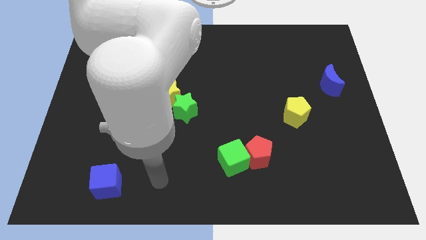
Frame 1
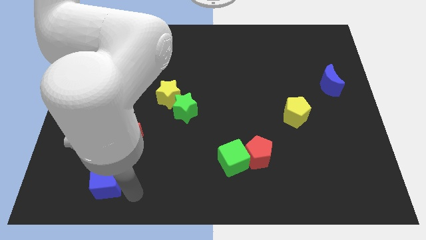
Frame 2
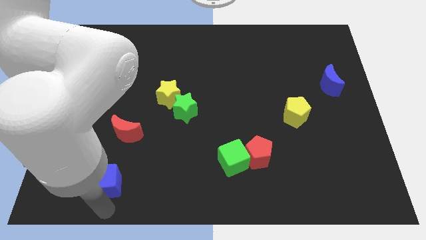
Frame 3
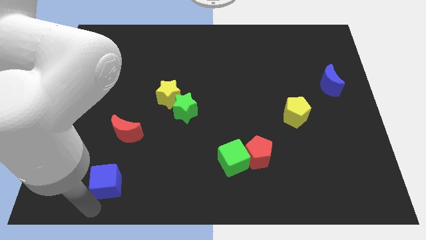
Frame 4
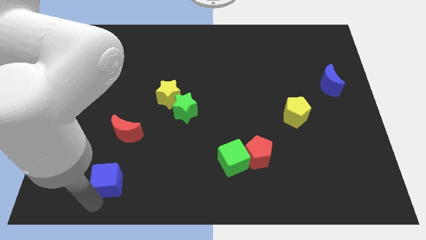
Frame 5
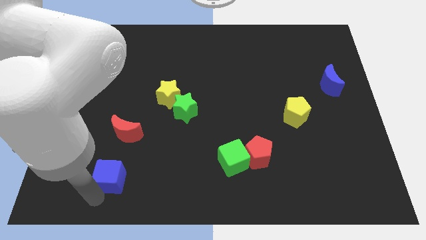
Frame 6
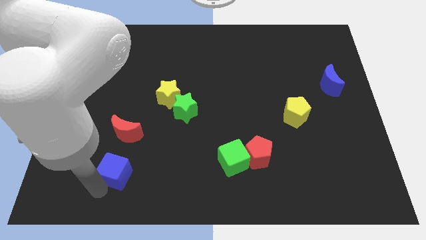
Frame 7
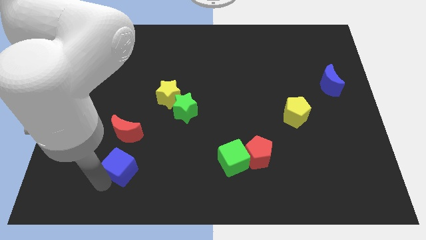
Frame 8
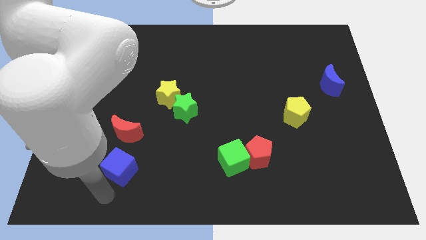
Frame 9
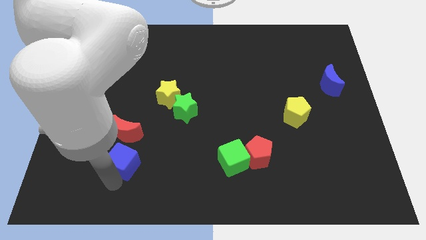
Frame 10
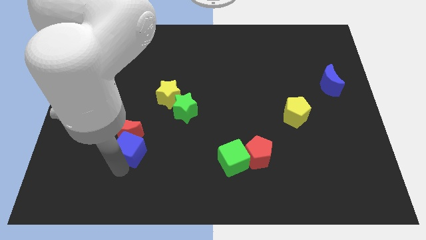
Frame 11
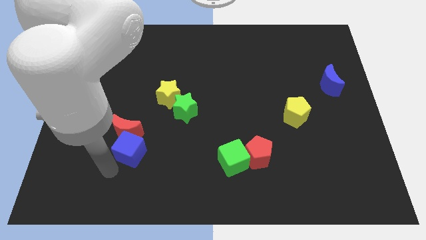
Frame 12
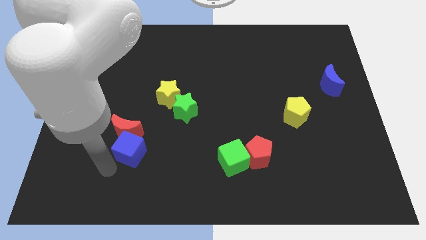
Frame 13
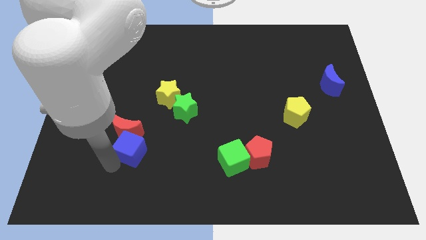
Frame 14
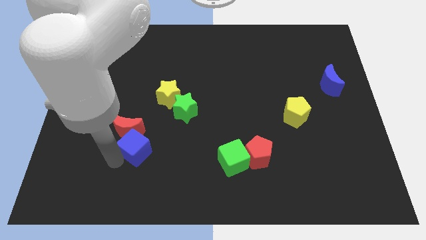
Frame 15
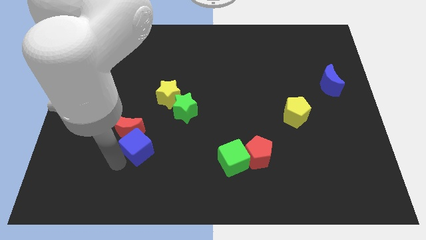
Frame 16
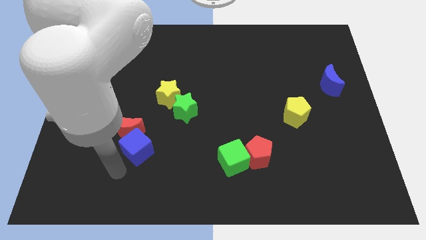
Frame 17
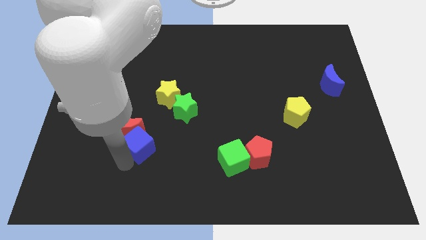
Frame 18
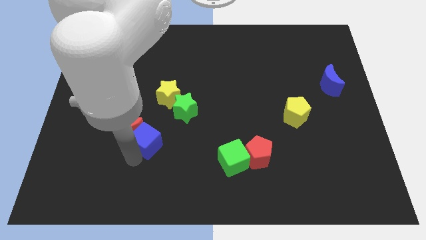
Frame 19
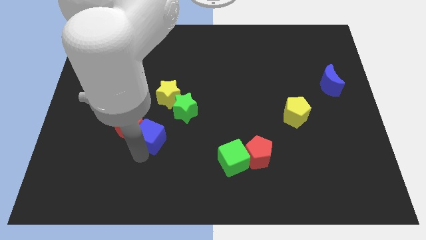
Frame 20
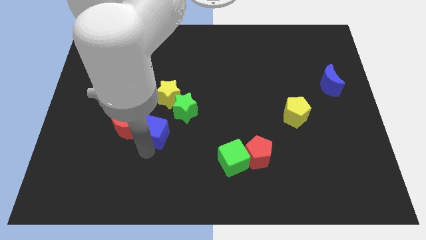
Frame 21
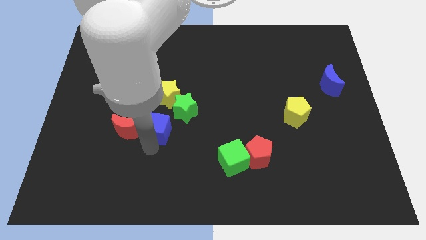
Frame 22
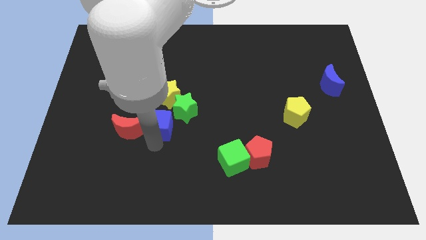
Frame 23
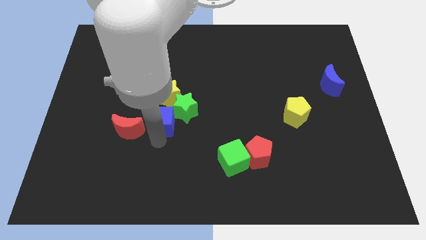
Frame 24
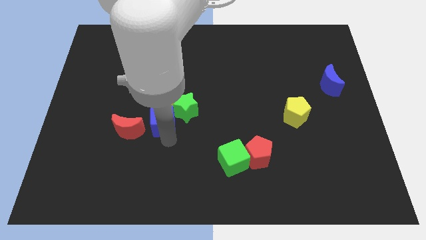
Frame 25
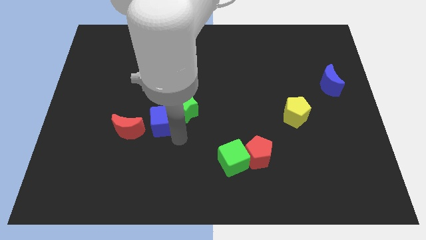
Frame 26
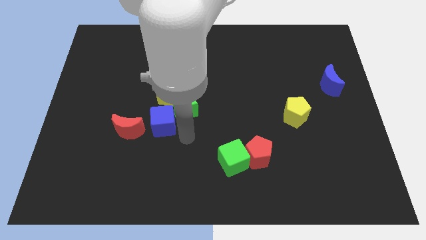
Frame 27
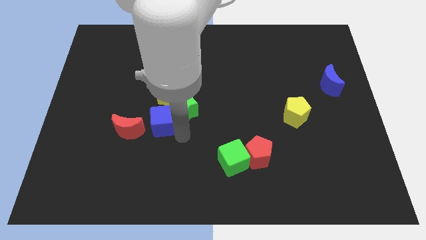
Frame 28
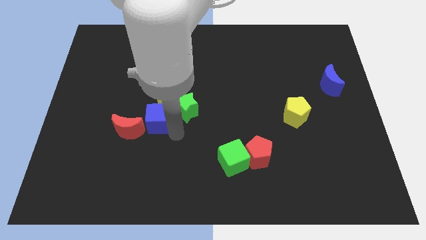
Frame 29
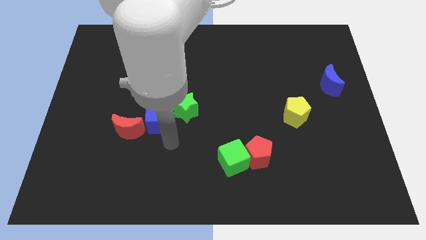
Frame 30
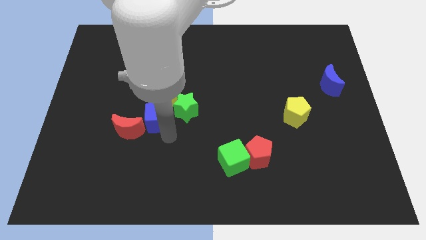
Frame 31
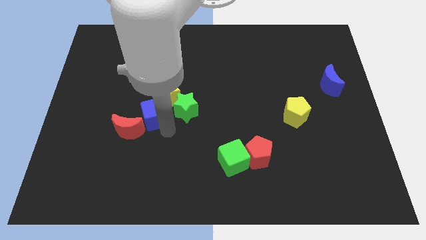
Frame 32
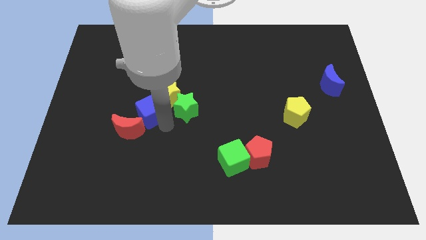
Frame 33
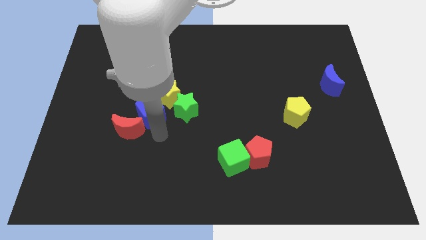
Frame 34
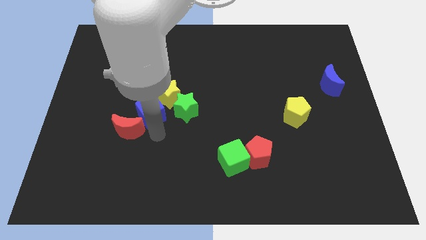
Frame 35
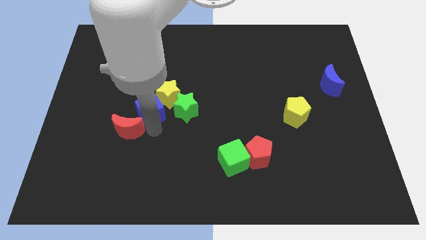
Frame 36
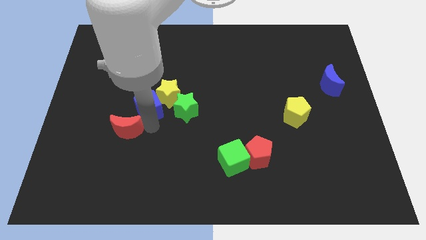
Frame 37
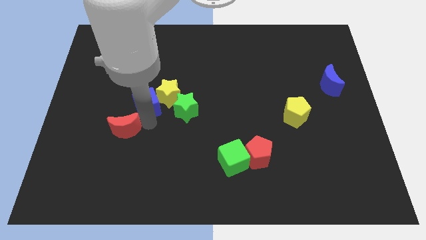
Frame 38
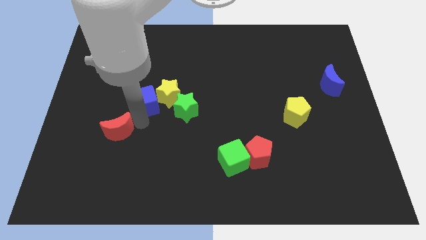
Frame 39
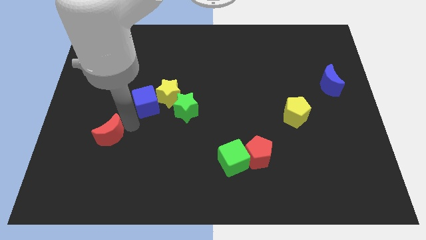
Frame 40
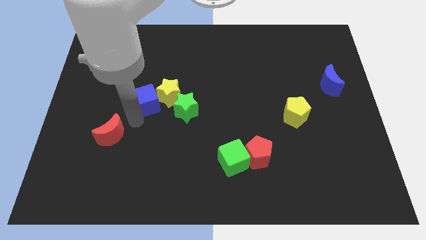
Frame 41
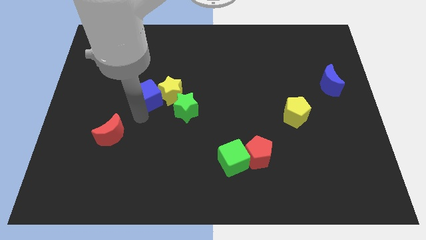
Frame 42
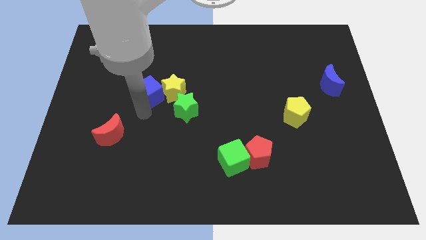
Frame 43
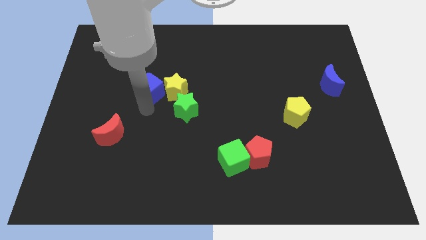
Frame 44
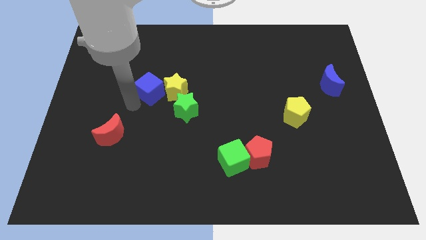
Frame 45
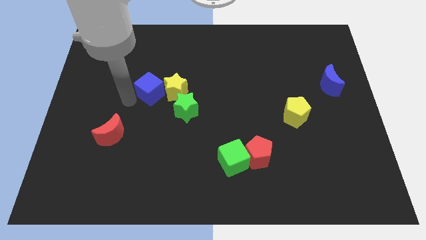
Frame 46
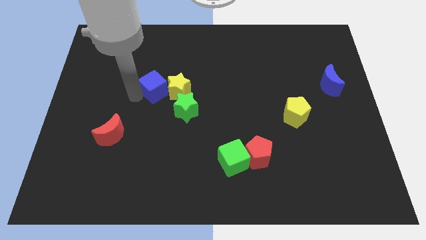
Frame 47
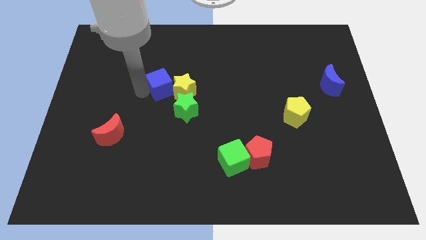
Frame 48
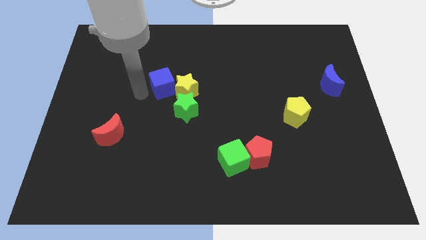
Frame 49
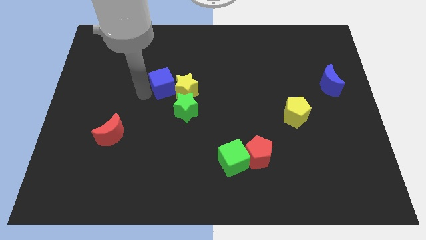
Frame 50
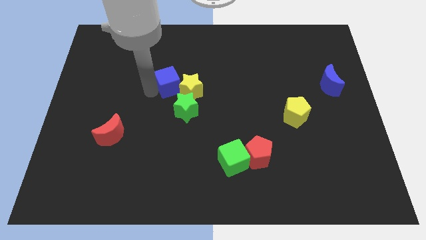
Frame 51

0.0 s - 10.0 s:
push the blue cube to the top side of the green star

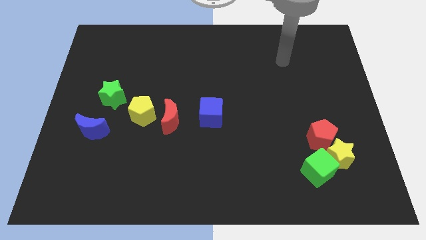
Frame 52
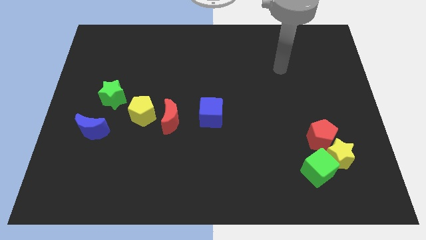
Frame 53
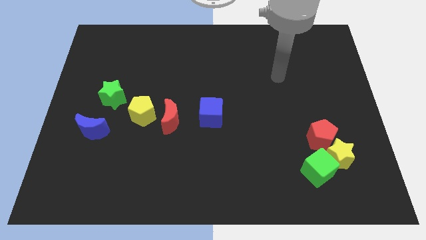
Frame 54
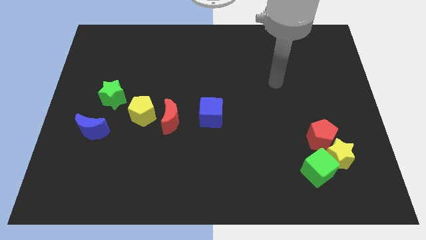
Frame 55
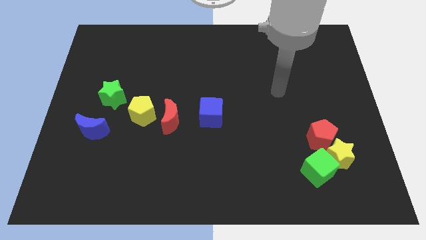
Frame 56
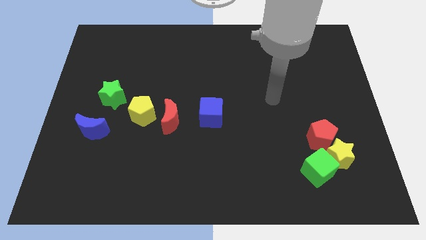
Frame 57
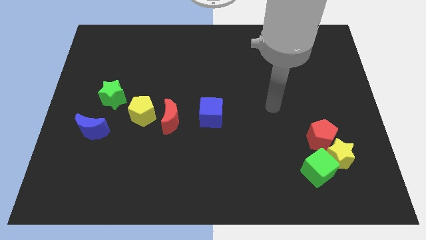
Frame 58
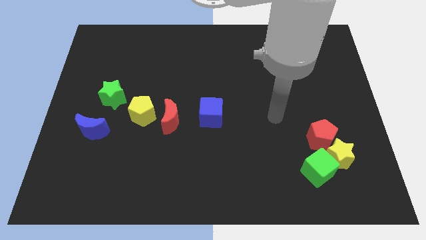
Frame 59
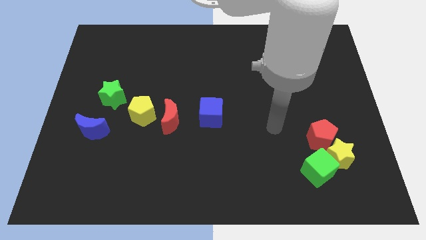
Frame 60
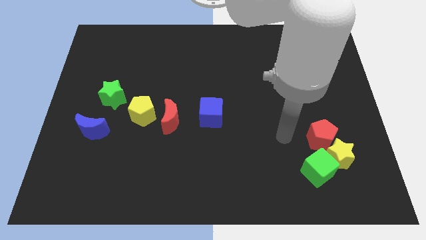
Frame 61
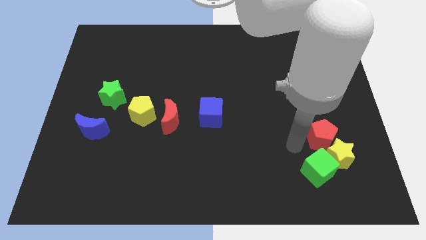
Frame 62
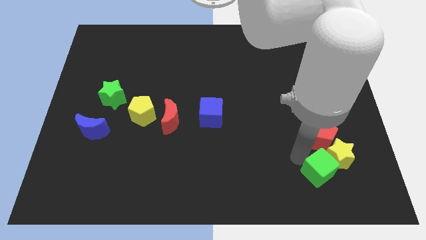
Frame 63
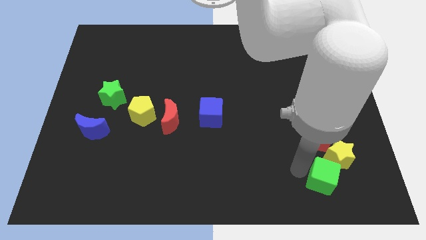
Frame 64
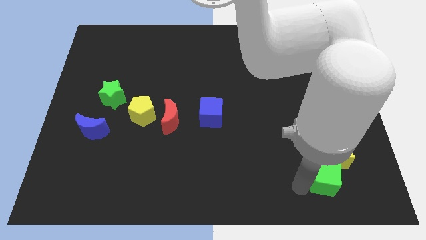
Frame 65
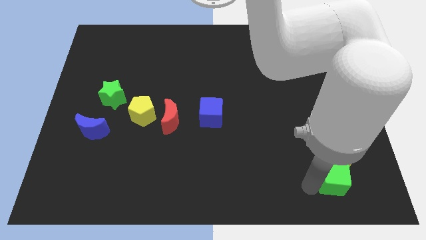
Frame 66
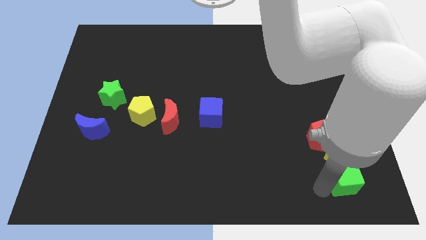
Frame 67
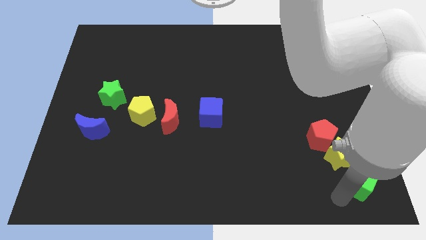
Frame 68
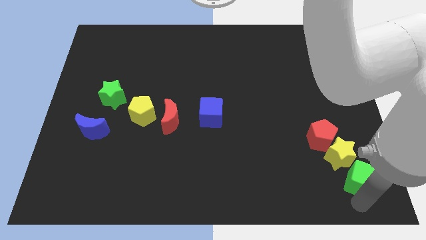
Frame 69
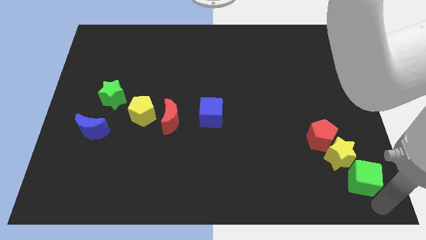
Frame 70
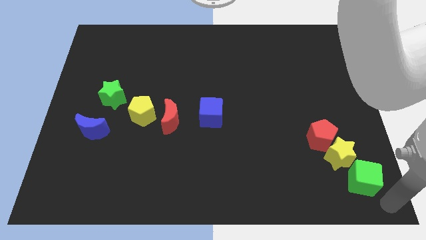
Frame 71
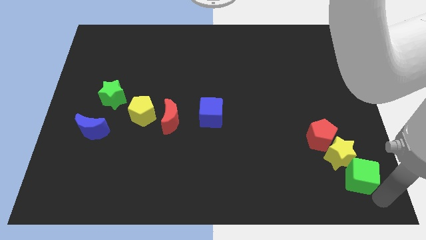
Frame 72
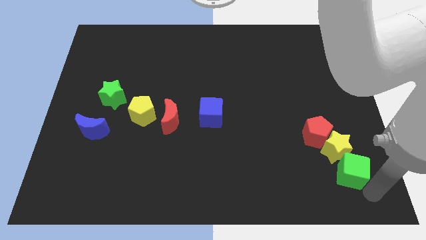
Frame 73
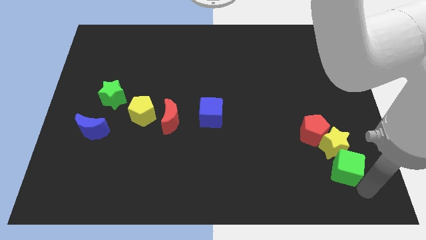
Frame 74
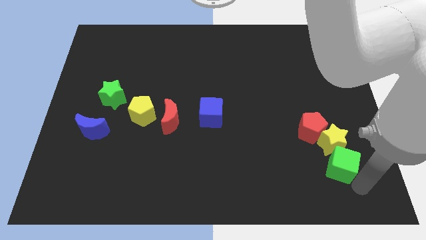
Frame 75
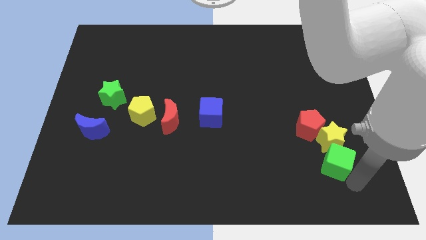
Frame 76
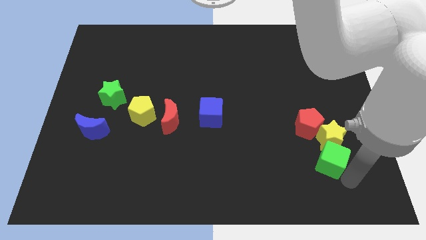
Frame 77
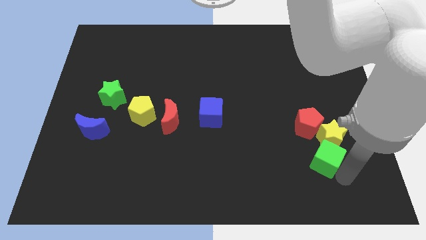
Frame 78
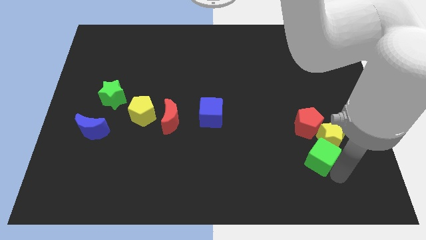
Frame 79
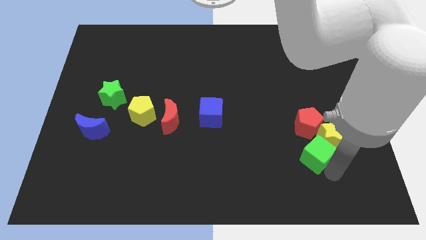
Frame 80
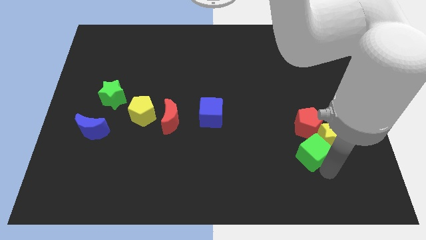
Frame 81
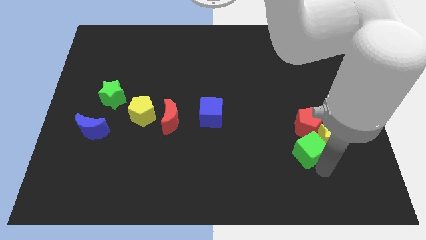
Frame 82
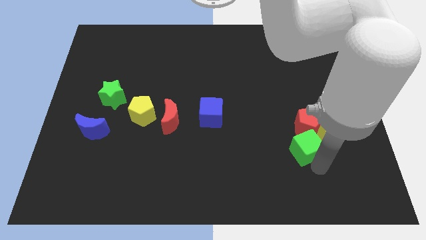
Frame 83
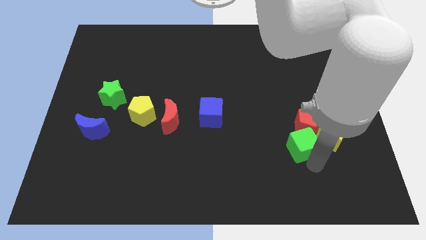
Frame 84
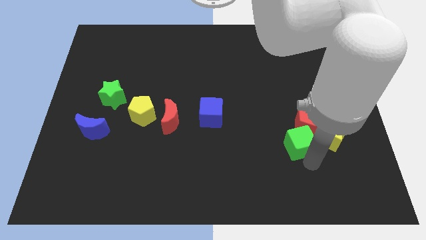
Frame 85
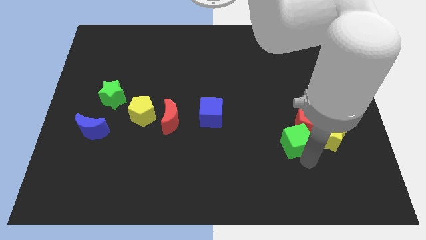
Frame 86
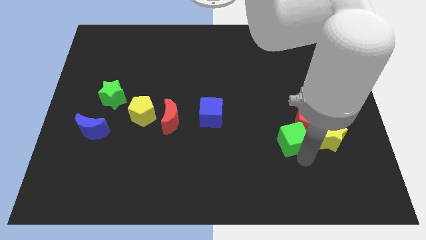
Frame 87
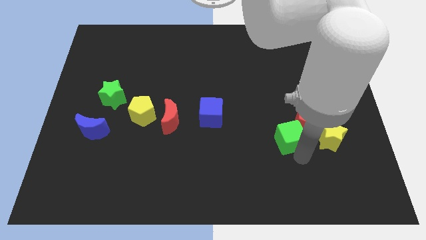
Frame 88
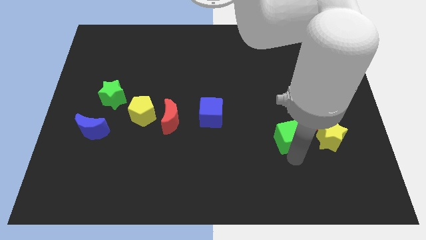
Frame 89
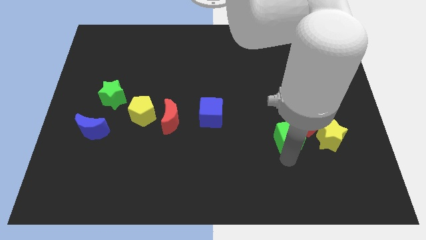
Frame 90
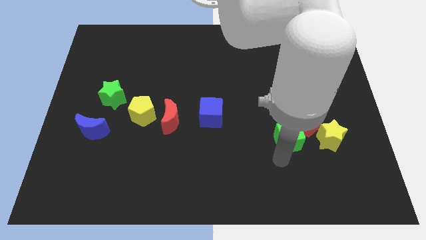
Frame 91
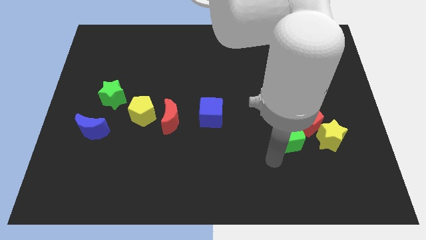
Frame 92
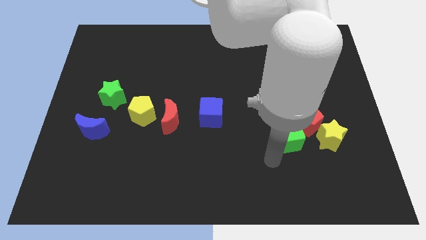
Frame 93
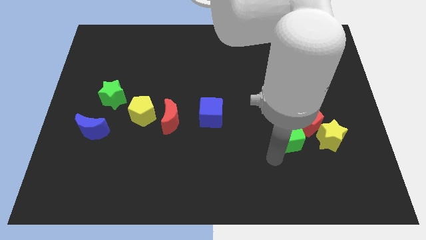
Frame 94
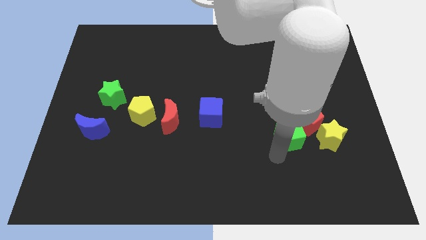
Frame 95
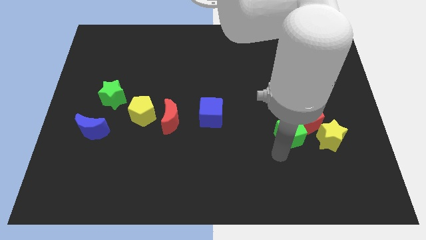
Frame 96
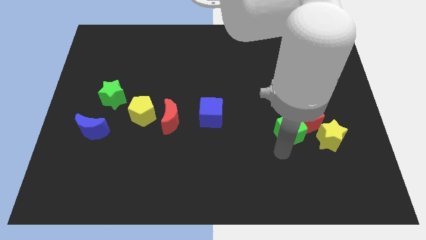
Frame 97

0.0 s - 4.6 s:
slide the green cube diagonally up and to the left of the yellow star
